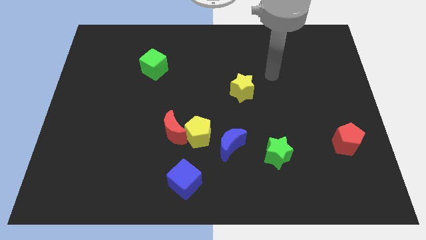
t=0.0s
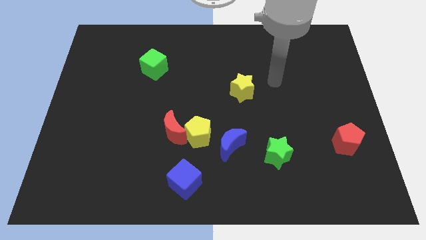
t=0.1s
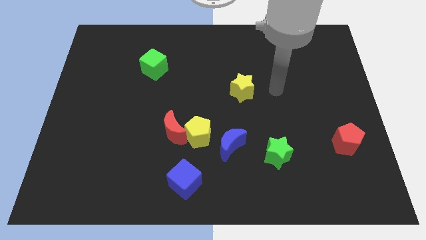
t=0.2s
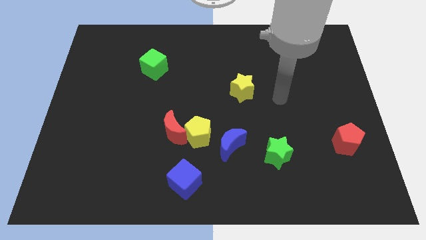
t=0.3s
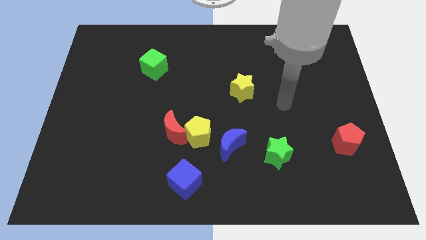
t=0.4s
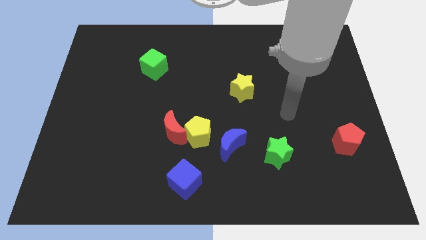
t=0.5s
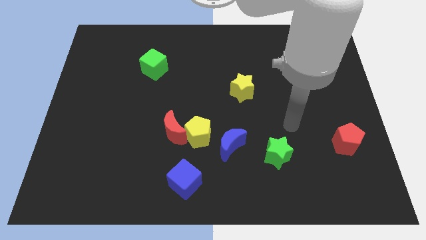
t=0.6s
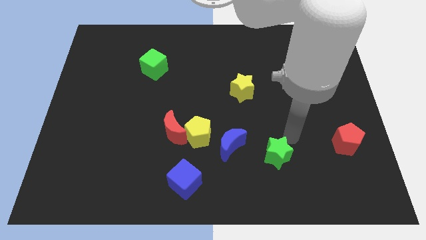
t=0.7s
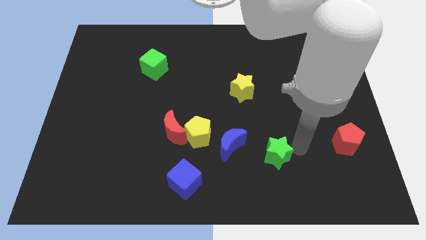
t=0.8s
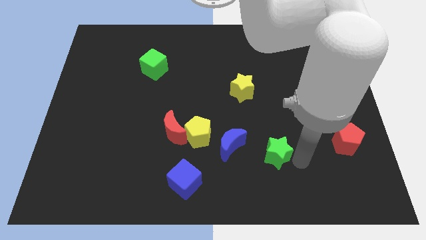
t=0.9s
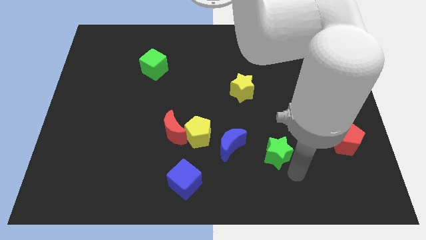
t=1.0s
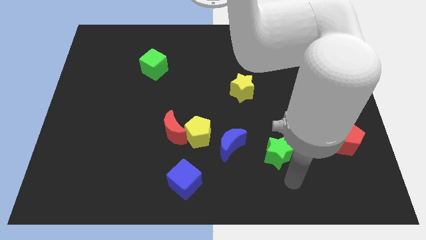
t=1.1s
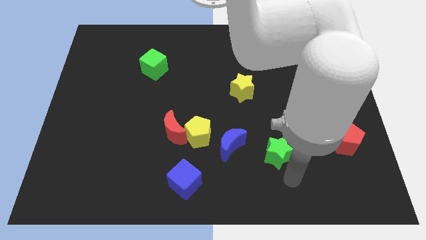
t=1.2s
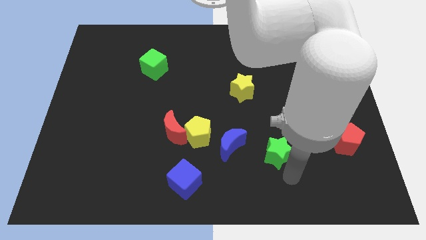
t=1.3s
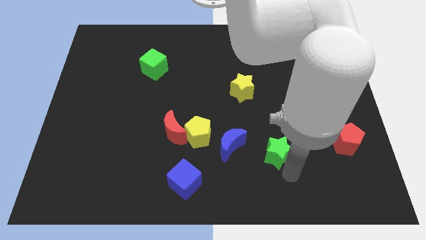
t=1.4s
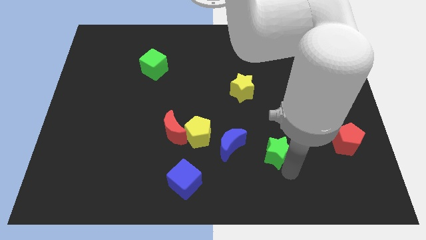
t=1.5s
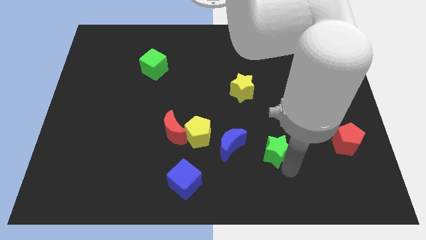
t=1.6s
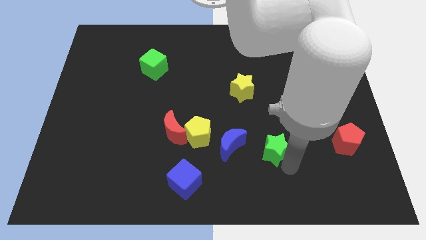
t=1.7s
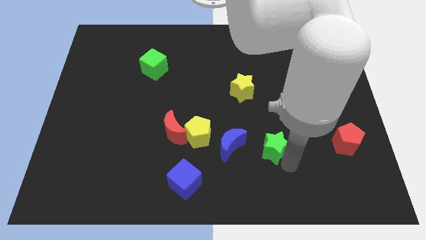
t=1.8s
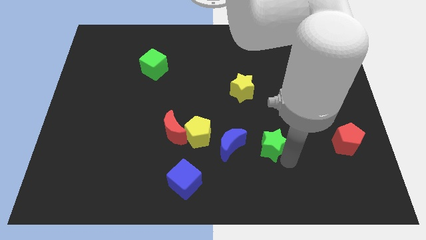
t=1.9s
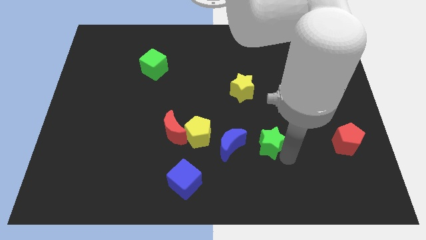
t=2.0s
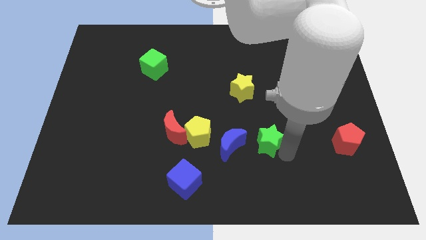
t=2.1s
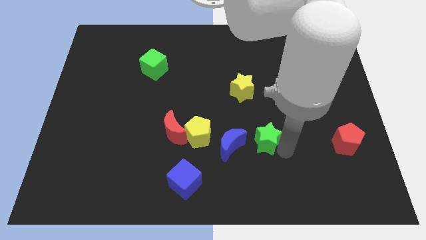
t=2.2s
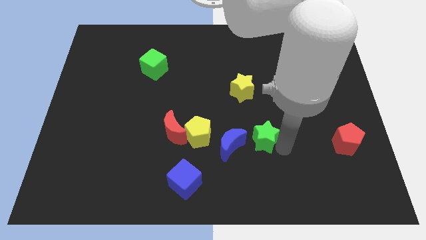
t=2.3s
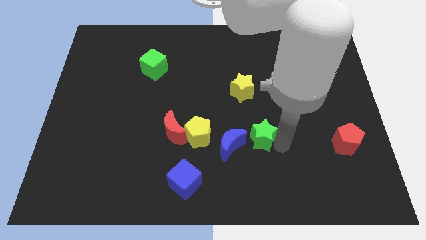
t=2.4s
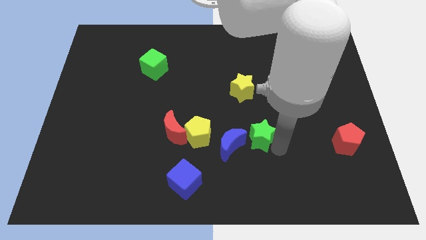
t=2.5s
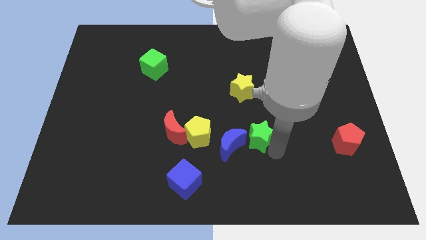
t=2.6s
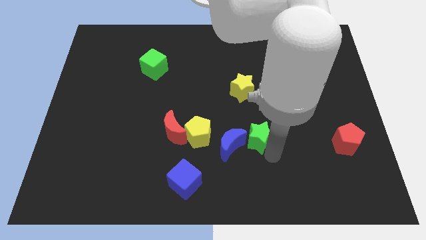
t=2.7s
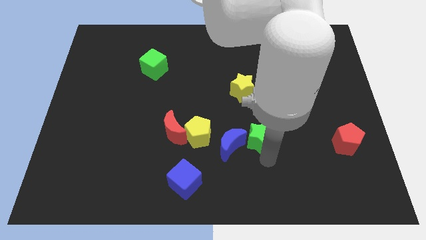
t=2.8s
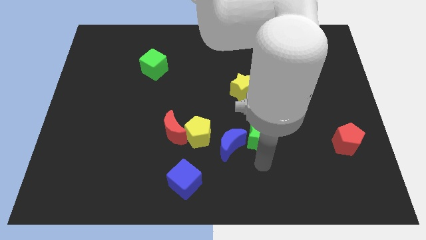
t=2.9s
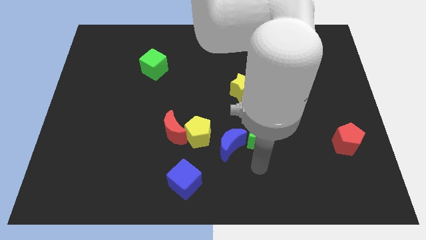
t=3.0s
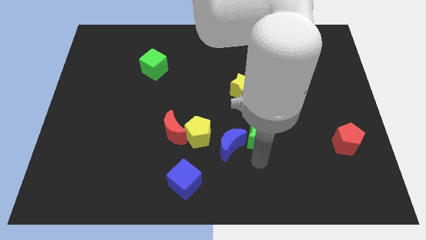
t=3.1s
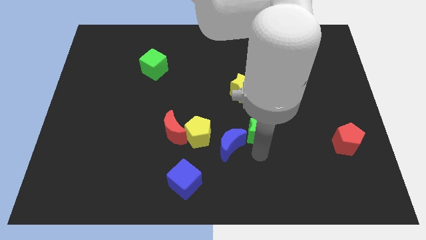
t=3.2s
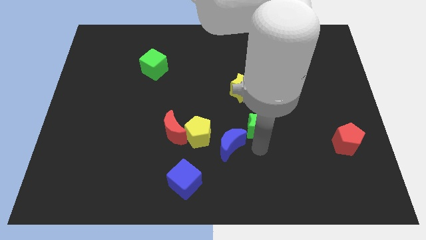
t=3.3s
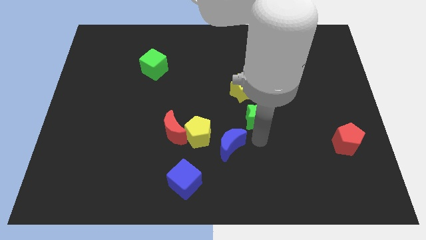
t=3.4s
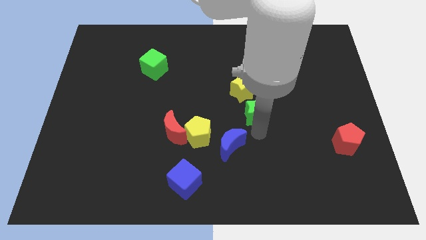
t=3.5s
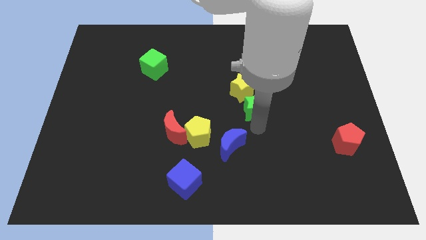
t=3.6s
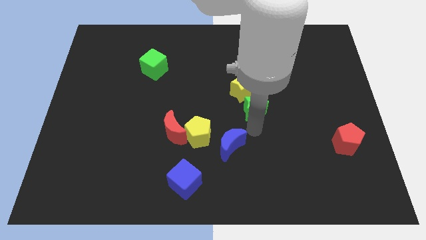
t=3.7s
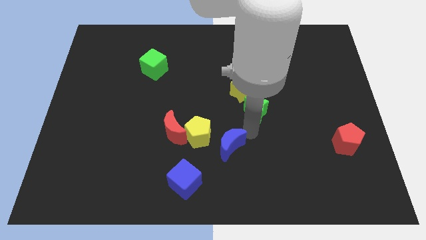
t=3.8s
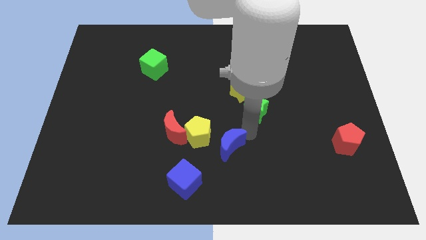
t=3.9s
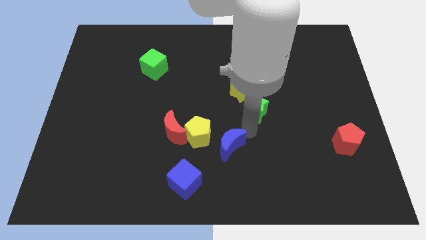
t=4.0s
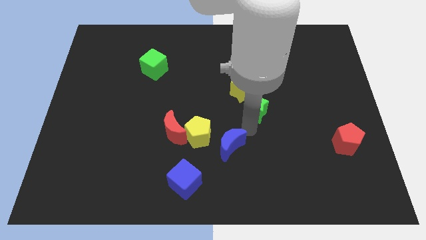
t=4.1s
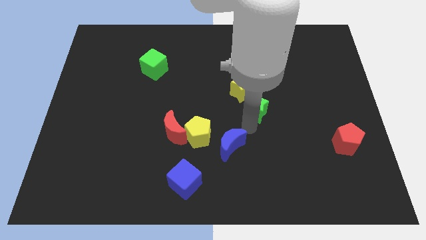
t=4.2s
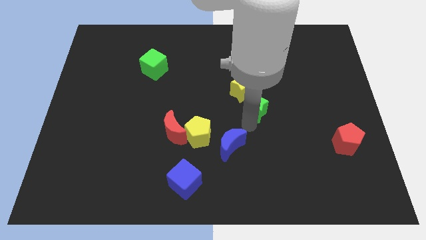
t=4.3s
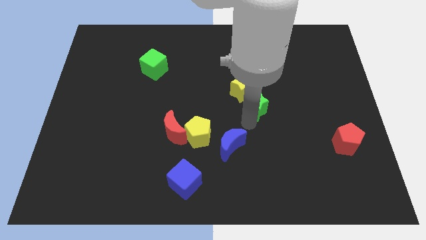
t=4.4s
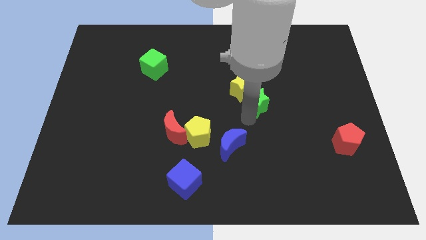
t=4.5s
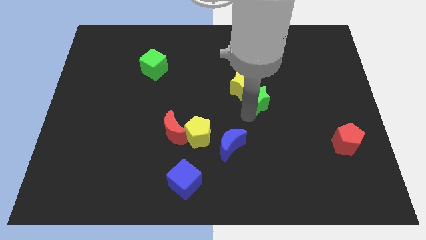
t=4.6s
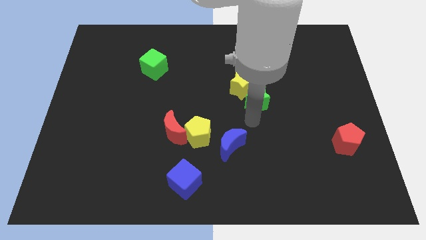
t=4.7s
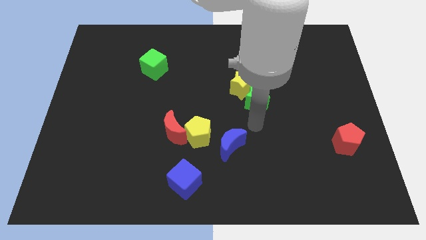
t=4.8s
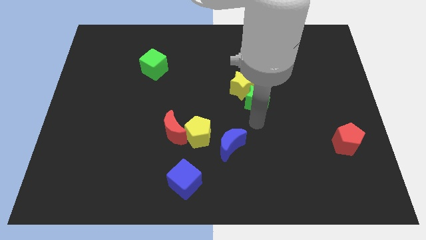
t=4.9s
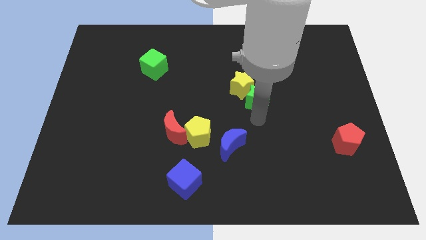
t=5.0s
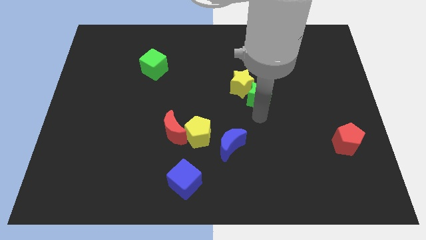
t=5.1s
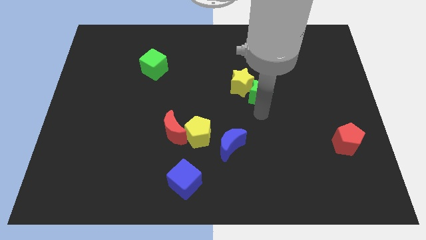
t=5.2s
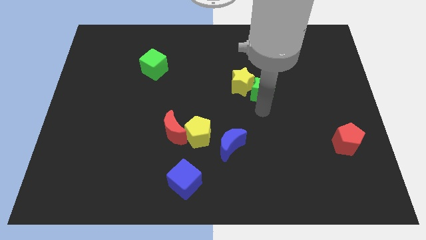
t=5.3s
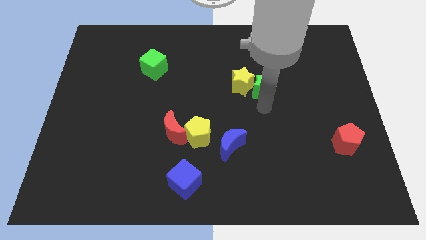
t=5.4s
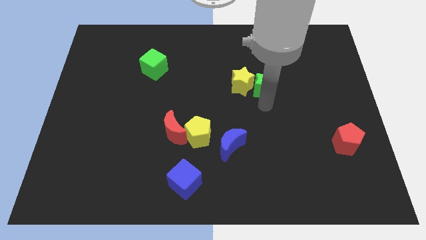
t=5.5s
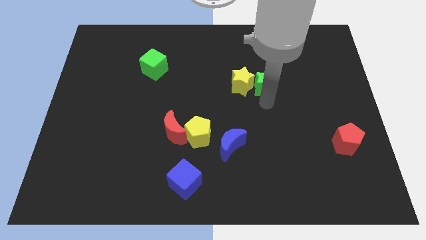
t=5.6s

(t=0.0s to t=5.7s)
push the green star diagonally up and to the right of the yellow star

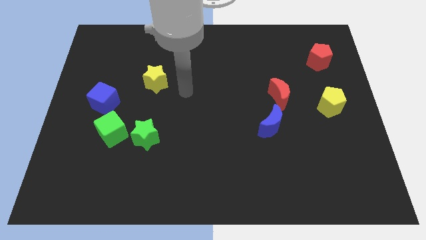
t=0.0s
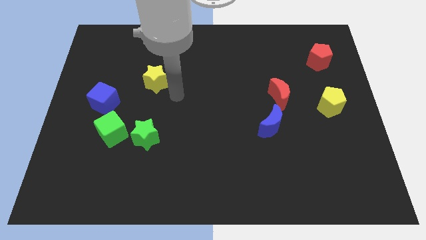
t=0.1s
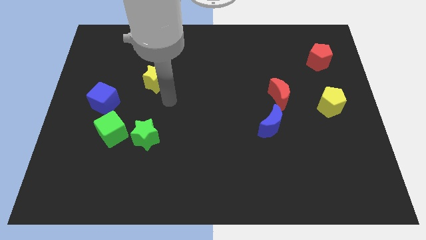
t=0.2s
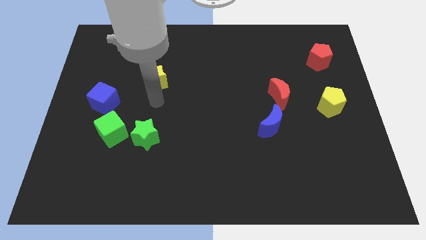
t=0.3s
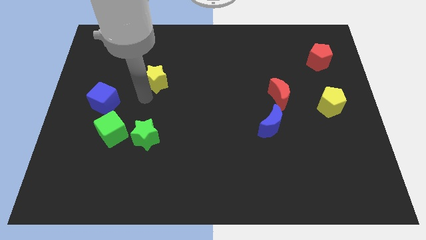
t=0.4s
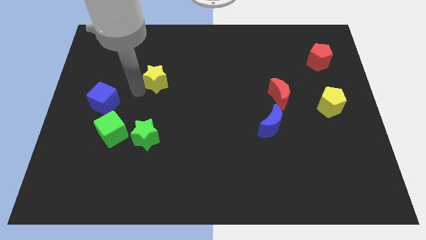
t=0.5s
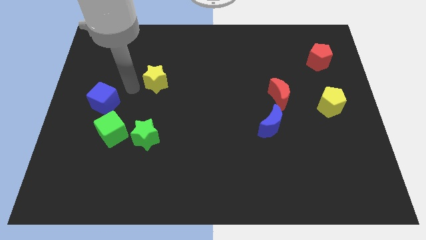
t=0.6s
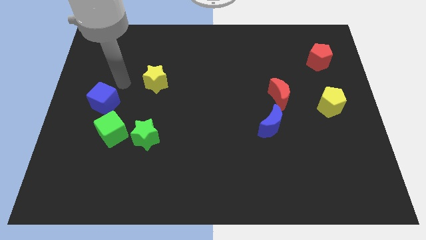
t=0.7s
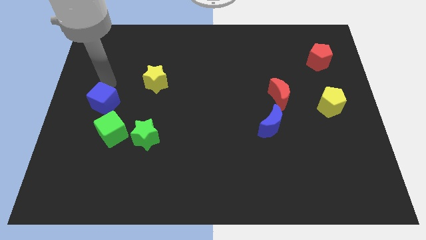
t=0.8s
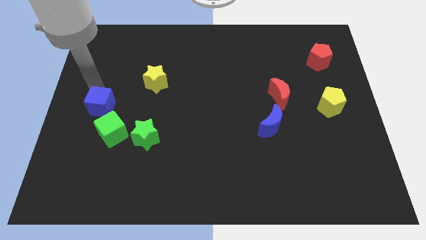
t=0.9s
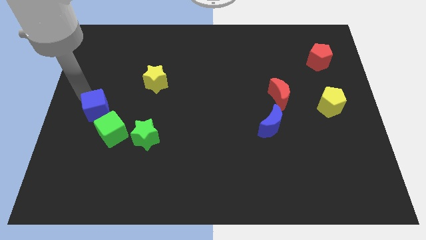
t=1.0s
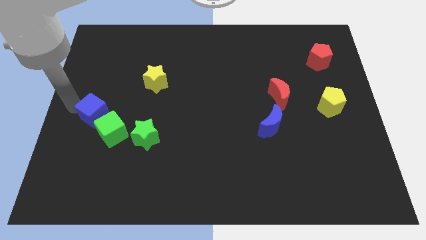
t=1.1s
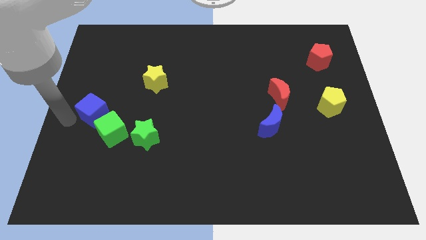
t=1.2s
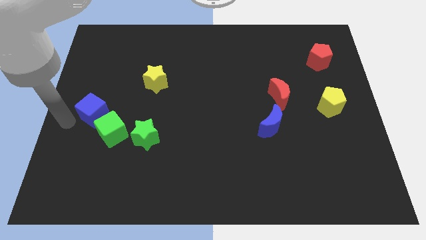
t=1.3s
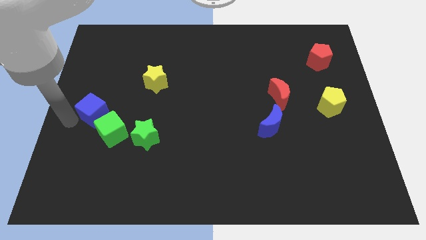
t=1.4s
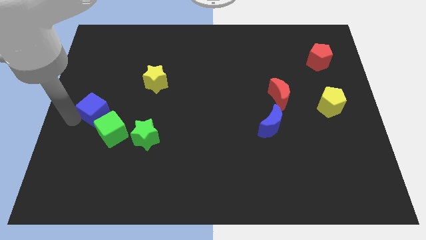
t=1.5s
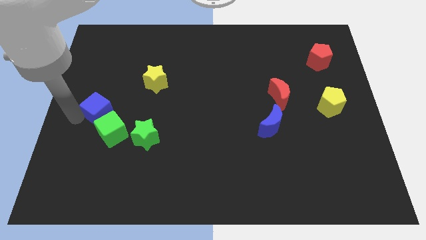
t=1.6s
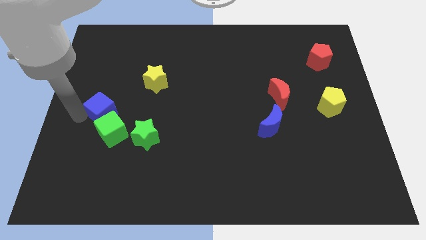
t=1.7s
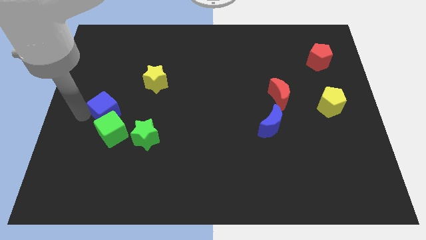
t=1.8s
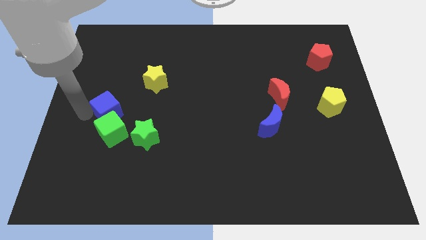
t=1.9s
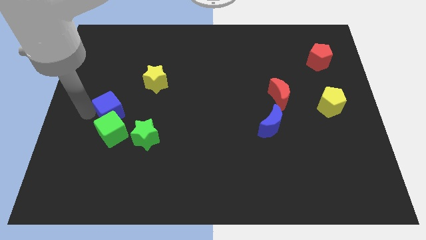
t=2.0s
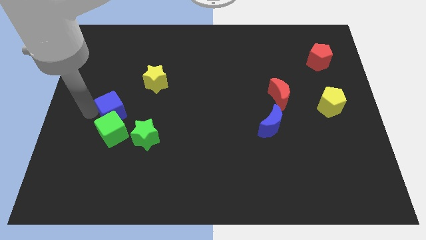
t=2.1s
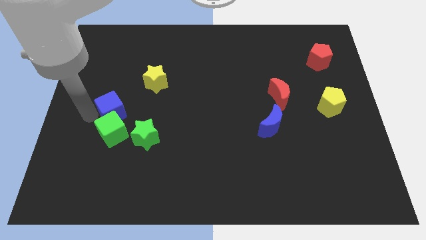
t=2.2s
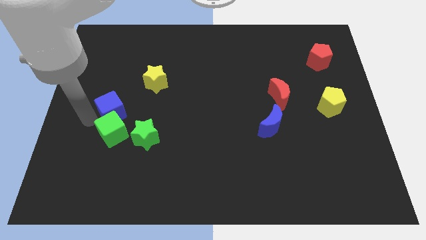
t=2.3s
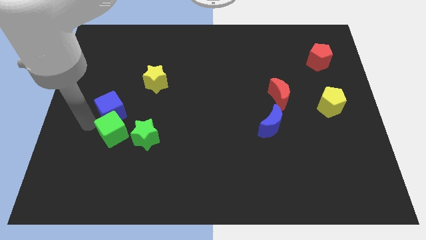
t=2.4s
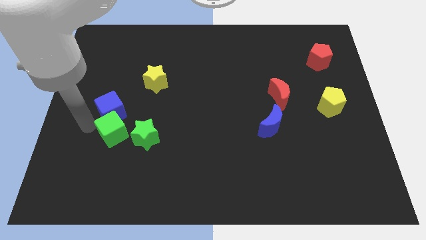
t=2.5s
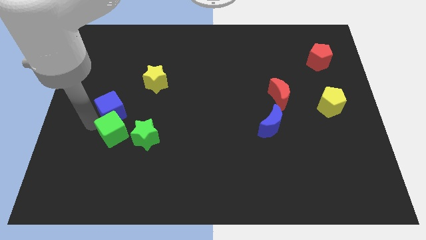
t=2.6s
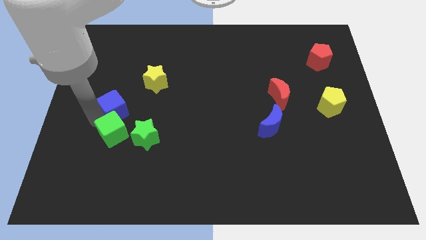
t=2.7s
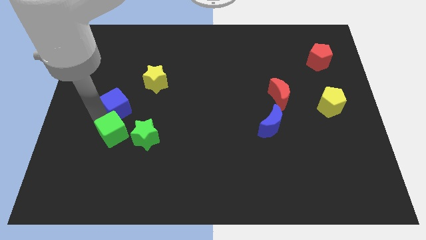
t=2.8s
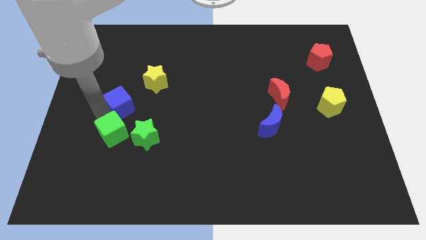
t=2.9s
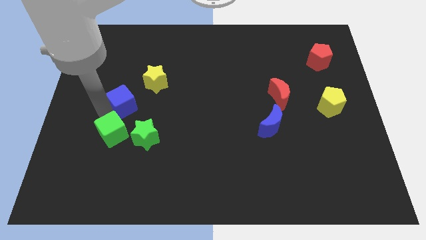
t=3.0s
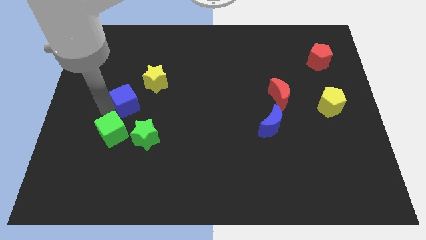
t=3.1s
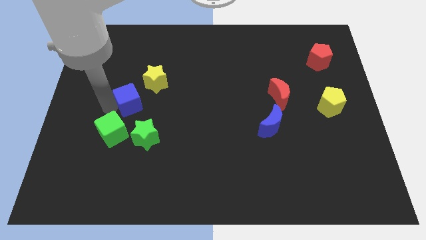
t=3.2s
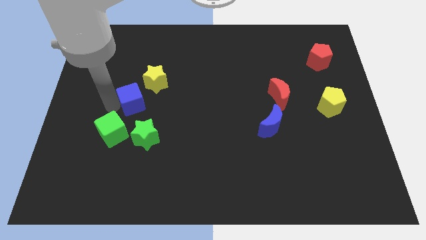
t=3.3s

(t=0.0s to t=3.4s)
put the blue cube to the top of the green star
